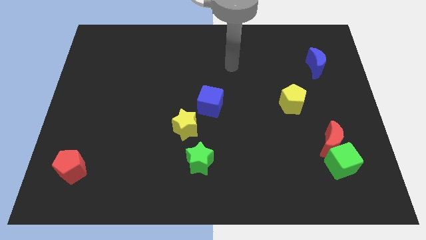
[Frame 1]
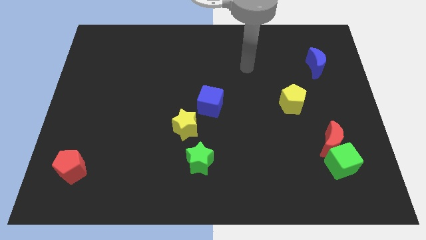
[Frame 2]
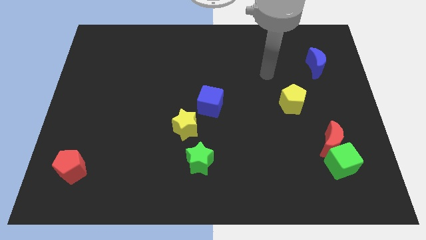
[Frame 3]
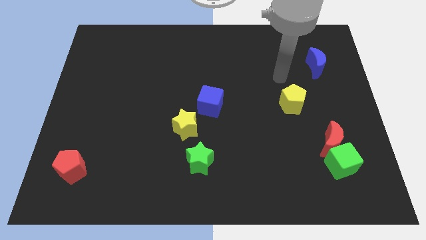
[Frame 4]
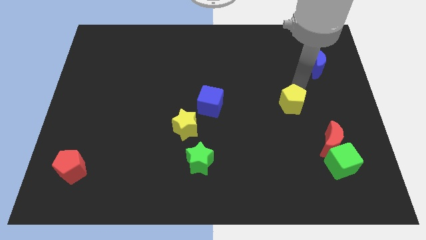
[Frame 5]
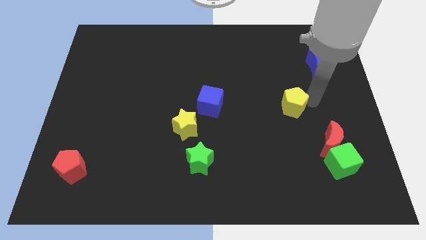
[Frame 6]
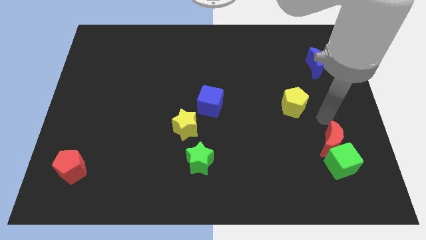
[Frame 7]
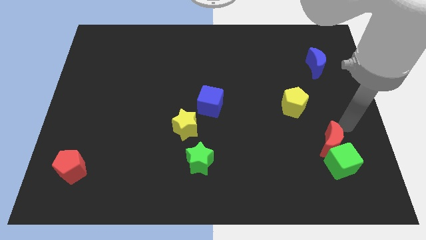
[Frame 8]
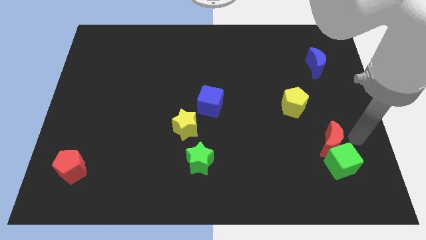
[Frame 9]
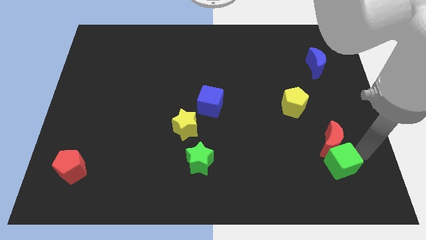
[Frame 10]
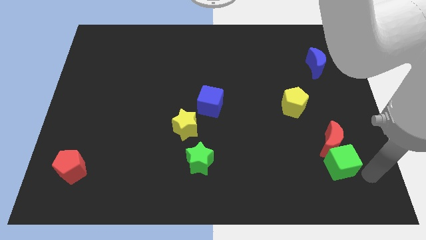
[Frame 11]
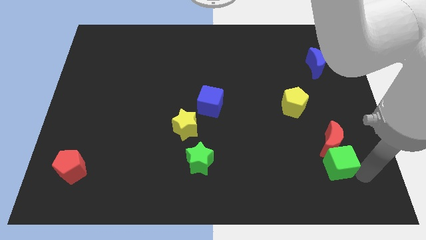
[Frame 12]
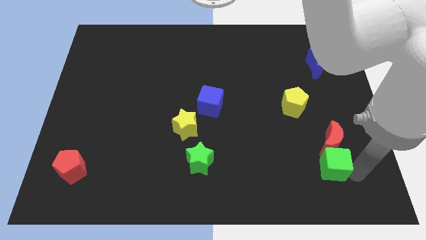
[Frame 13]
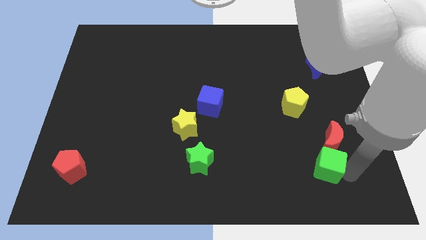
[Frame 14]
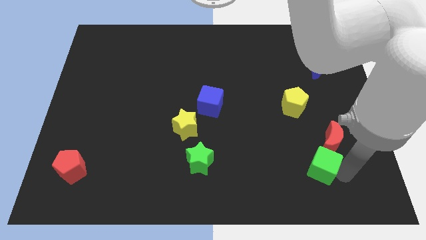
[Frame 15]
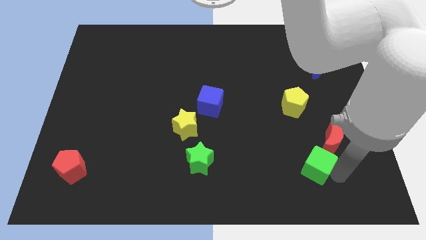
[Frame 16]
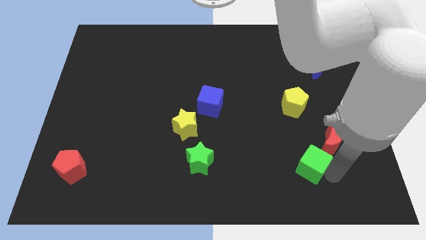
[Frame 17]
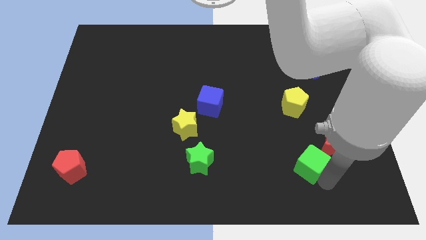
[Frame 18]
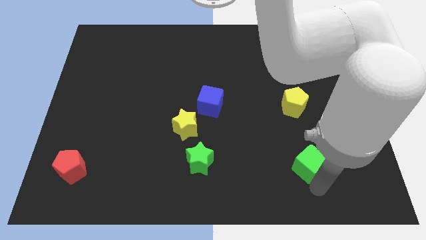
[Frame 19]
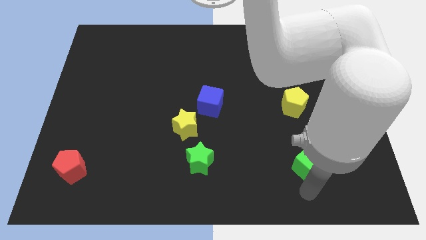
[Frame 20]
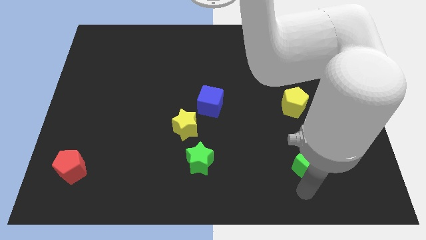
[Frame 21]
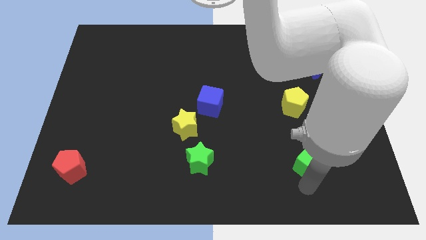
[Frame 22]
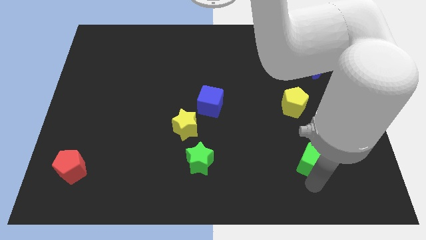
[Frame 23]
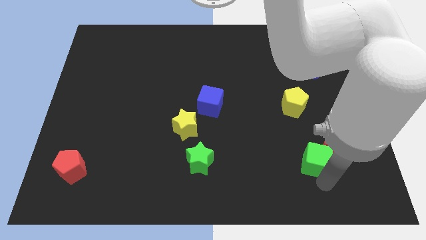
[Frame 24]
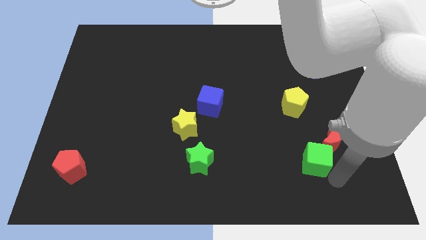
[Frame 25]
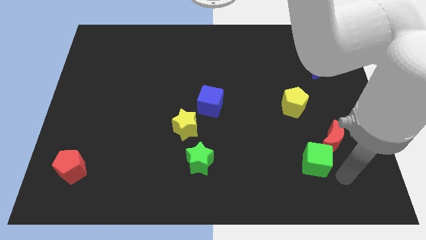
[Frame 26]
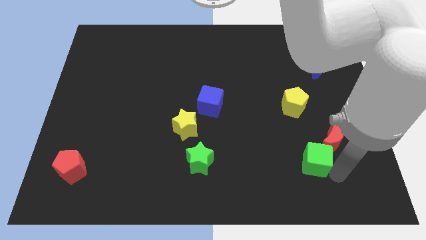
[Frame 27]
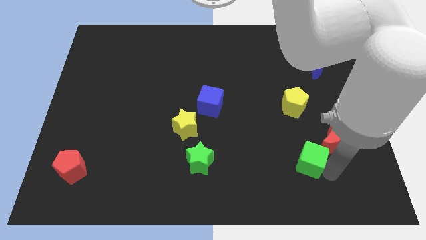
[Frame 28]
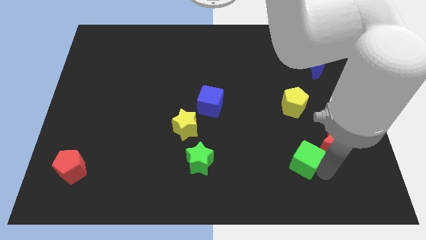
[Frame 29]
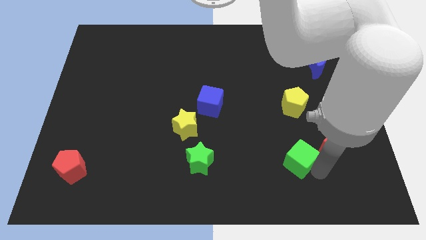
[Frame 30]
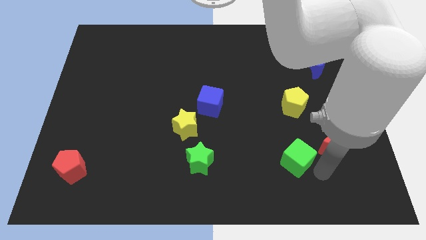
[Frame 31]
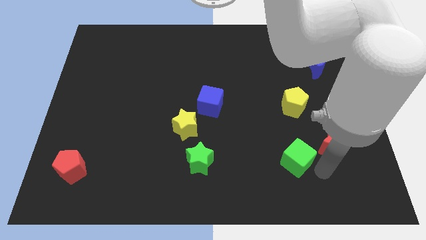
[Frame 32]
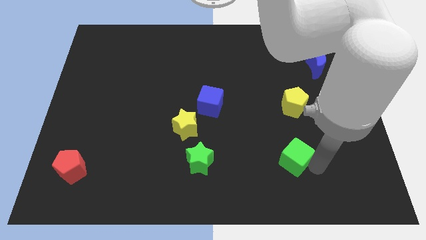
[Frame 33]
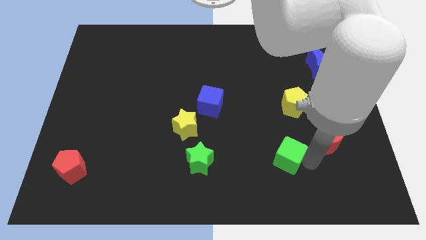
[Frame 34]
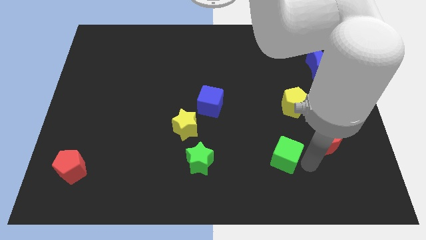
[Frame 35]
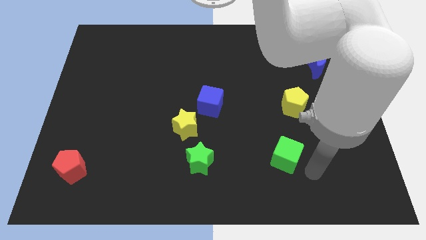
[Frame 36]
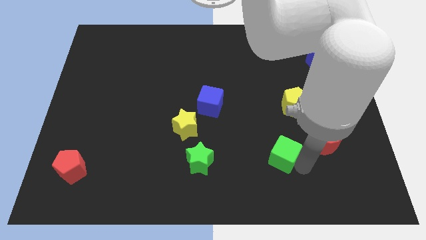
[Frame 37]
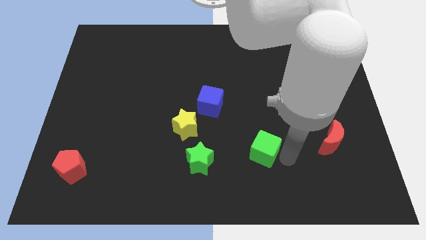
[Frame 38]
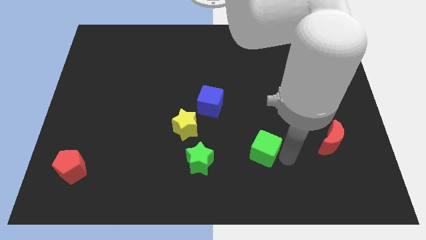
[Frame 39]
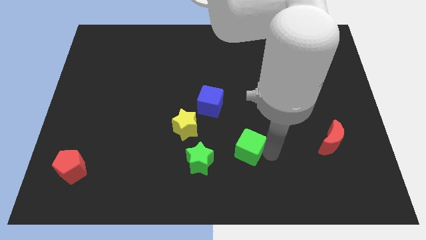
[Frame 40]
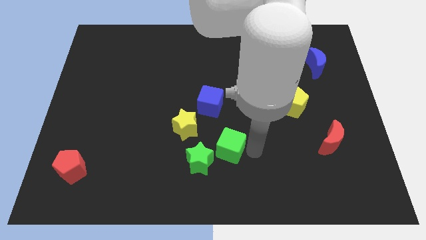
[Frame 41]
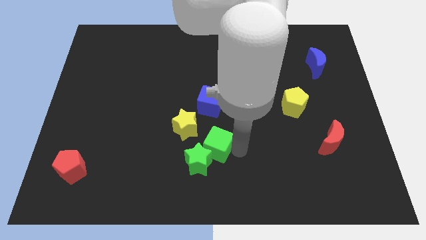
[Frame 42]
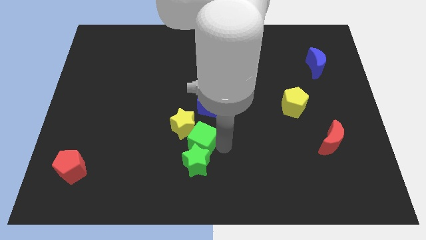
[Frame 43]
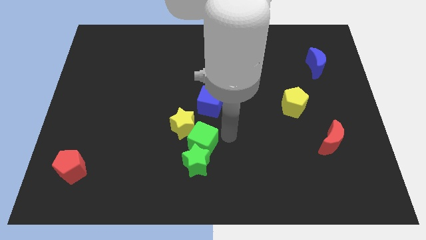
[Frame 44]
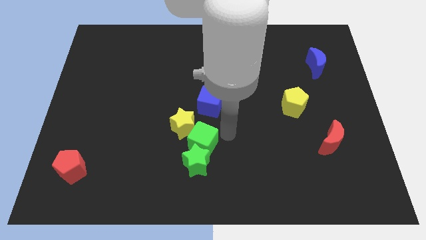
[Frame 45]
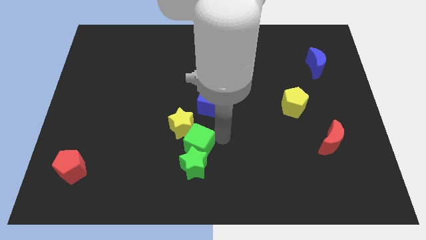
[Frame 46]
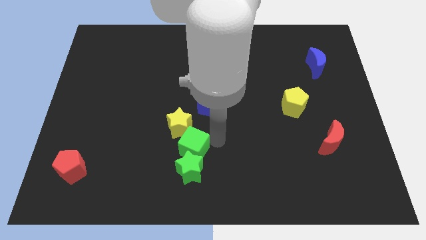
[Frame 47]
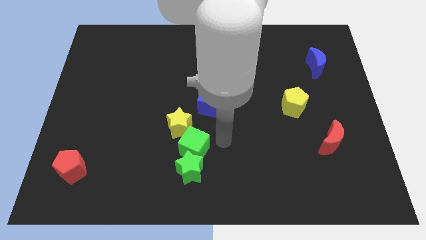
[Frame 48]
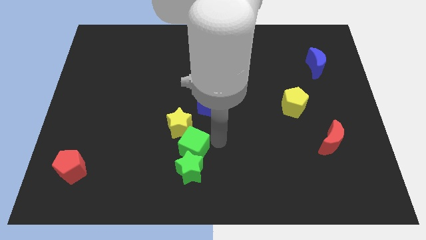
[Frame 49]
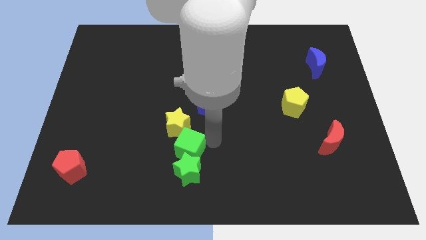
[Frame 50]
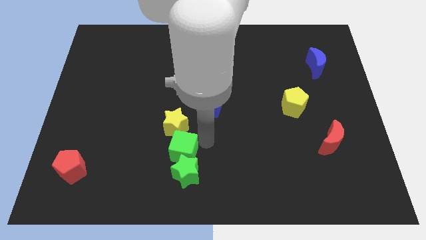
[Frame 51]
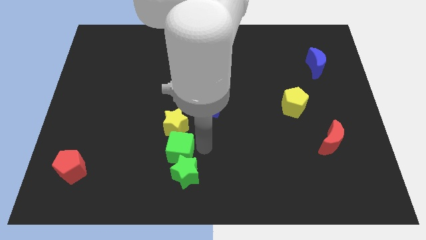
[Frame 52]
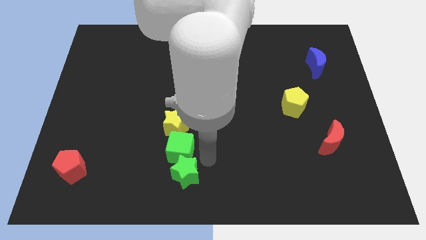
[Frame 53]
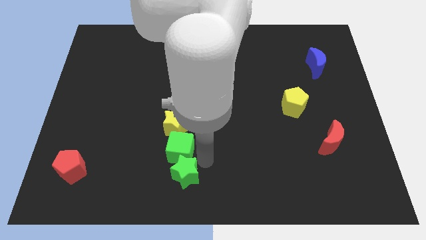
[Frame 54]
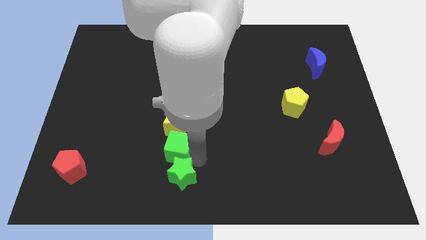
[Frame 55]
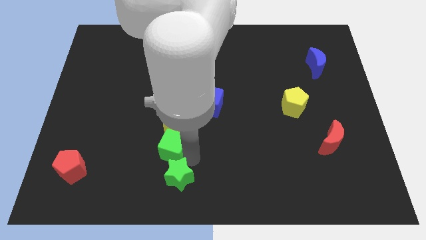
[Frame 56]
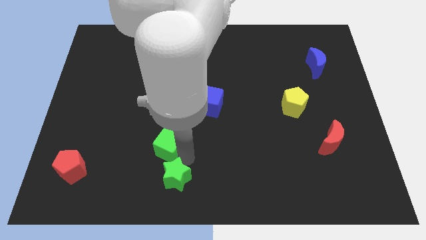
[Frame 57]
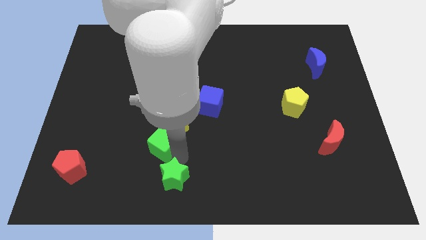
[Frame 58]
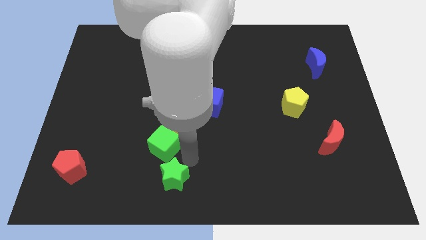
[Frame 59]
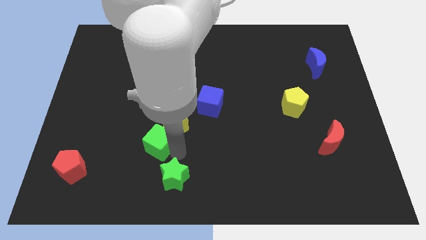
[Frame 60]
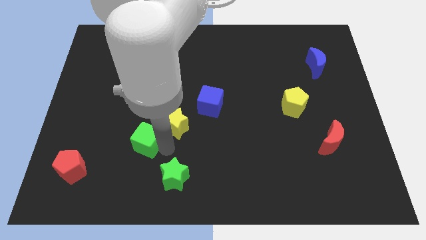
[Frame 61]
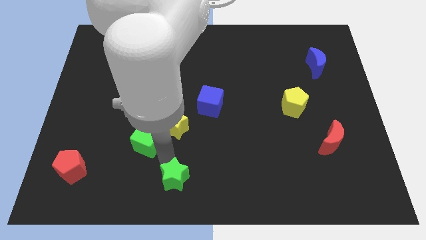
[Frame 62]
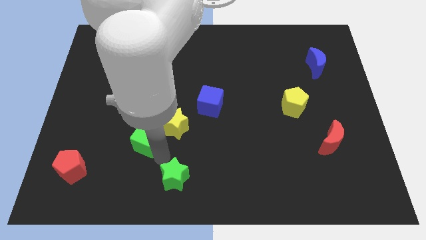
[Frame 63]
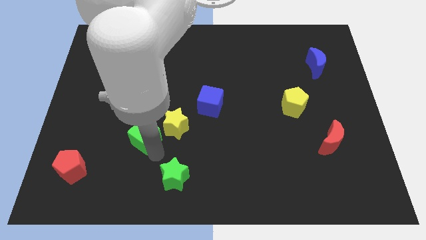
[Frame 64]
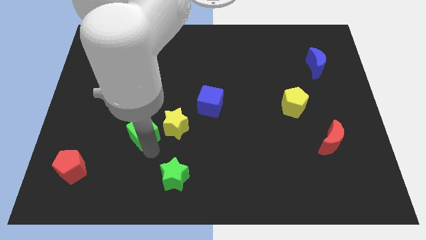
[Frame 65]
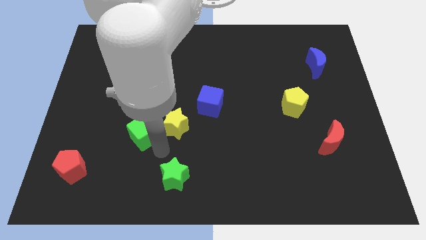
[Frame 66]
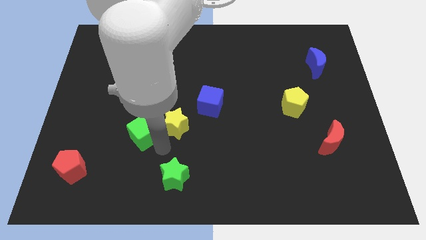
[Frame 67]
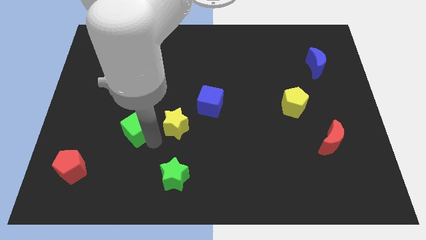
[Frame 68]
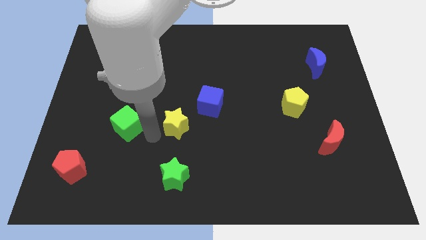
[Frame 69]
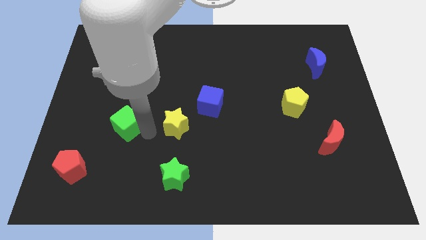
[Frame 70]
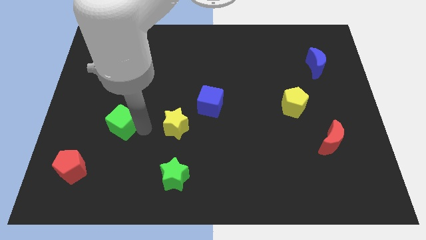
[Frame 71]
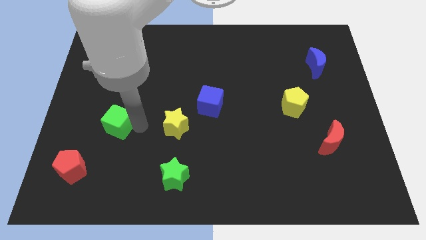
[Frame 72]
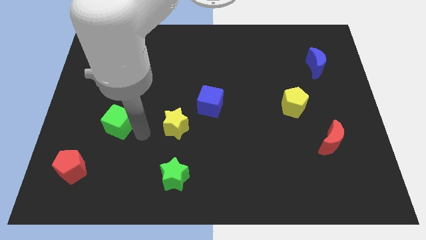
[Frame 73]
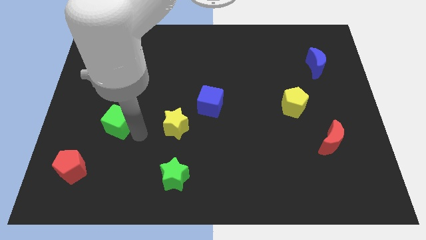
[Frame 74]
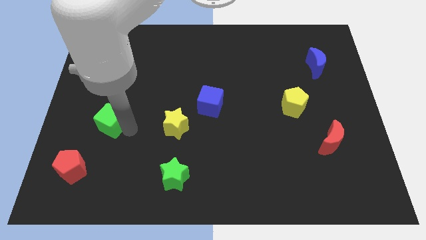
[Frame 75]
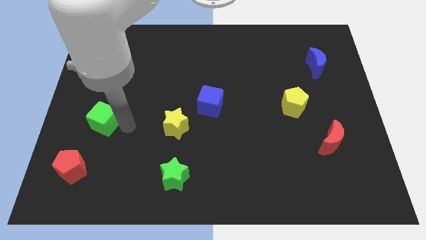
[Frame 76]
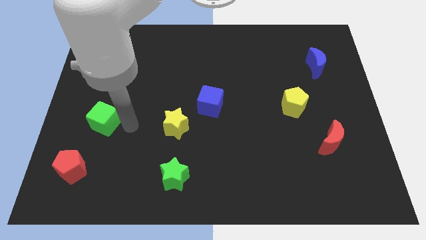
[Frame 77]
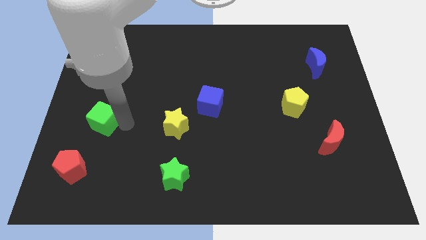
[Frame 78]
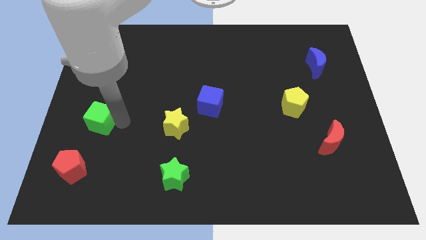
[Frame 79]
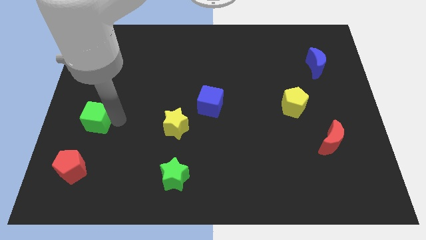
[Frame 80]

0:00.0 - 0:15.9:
put the green cube to the center left
